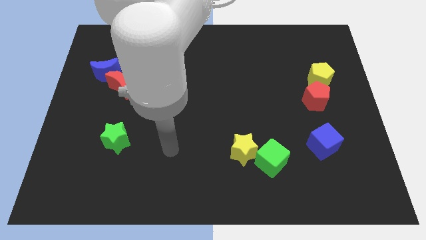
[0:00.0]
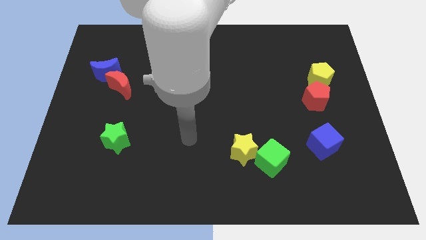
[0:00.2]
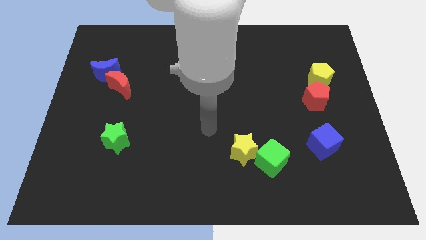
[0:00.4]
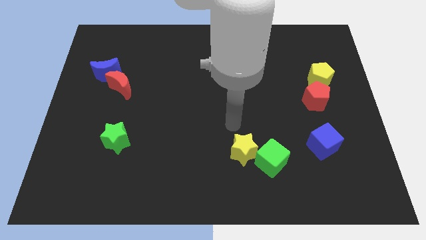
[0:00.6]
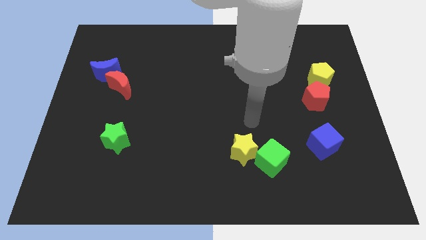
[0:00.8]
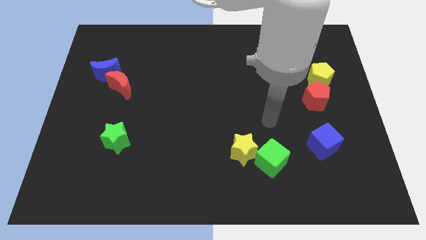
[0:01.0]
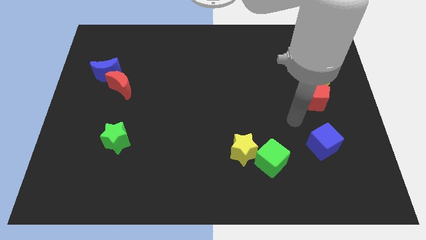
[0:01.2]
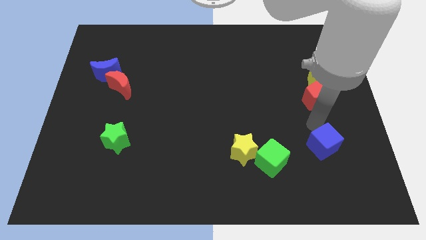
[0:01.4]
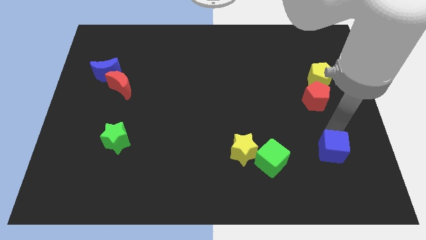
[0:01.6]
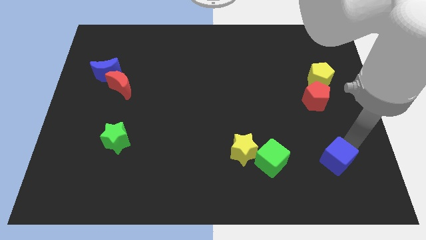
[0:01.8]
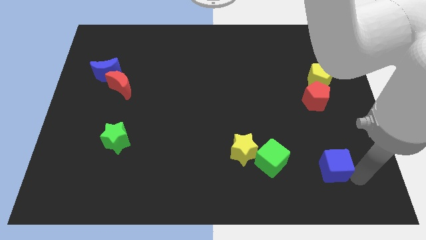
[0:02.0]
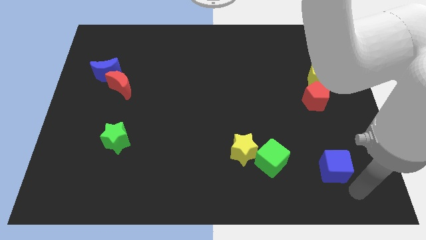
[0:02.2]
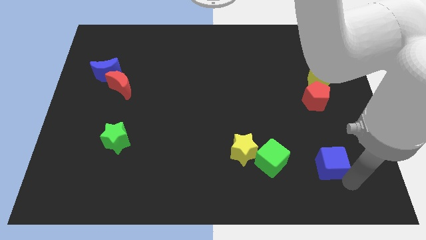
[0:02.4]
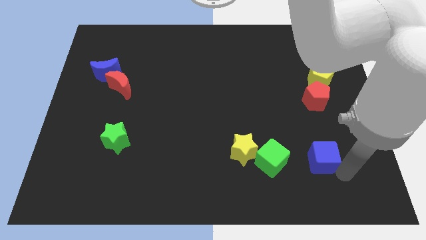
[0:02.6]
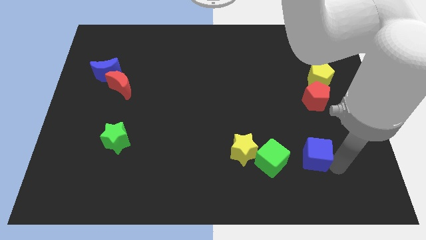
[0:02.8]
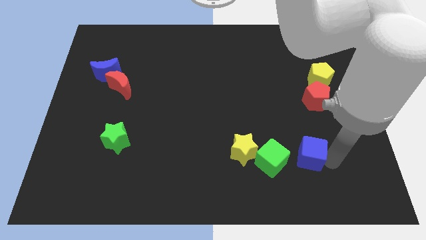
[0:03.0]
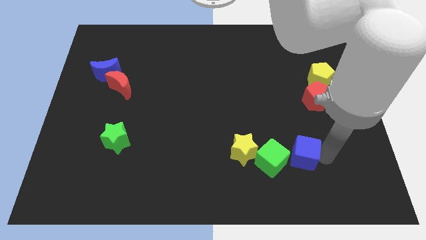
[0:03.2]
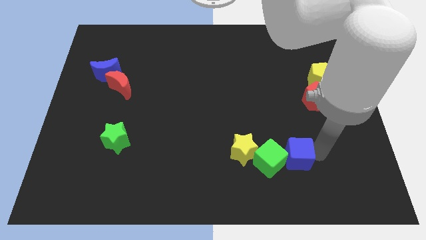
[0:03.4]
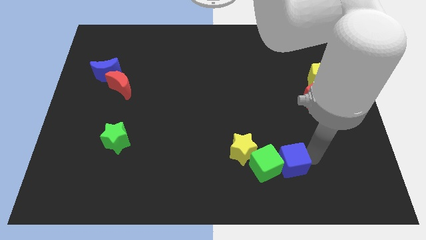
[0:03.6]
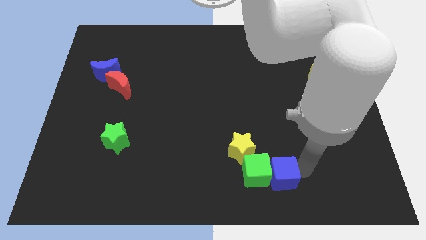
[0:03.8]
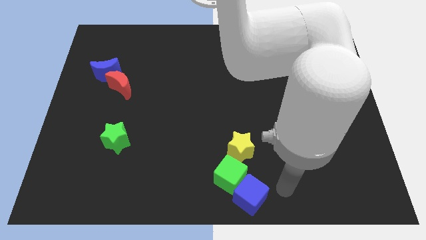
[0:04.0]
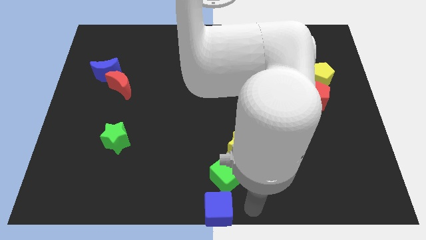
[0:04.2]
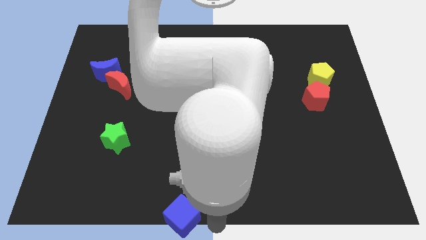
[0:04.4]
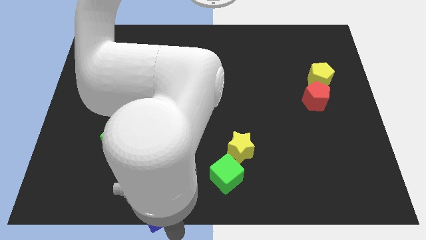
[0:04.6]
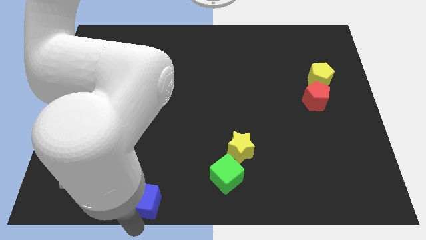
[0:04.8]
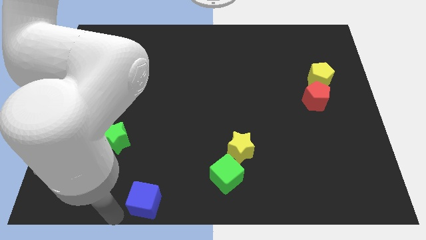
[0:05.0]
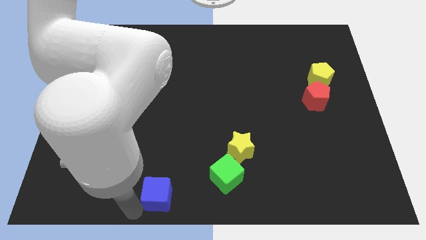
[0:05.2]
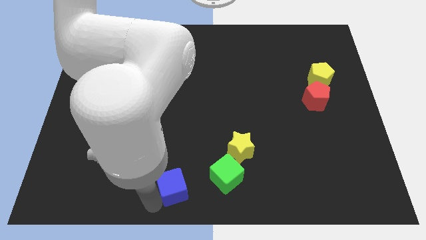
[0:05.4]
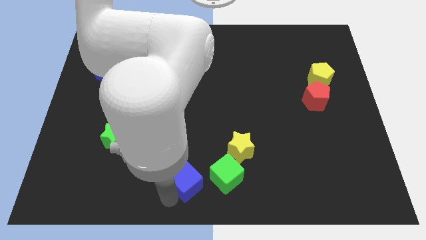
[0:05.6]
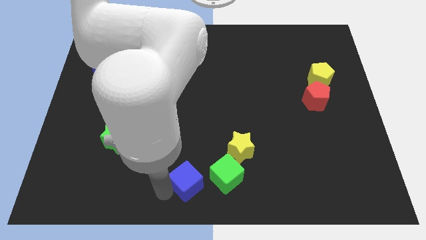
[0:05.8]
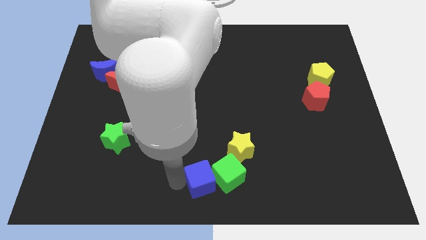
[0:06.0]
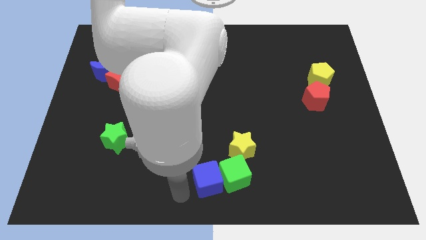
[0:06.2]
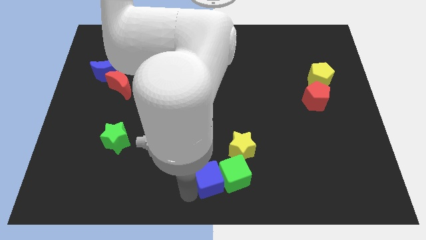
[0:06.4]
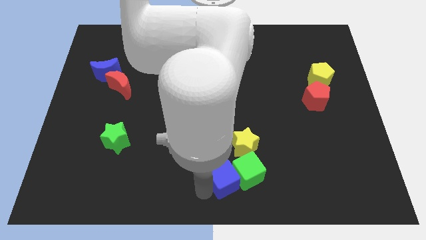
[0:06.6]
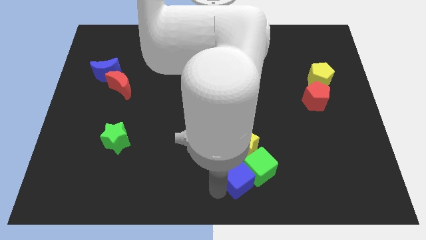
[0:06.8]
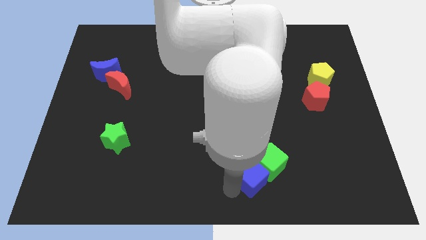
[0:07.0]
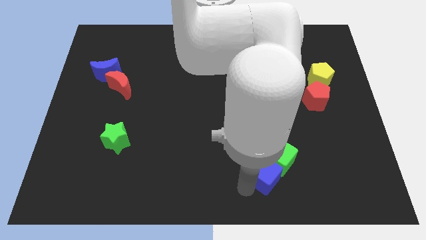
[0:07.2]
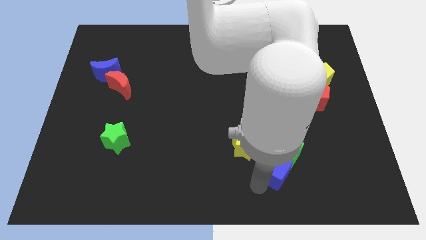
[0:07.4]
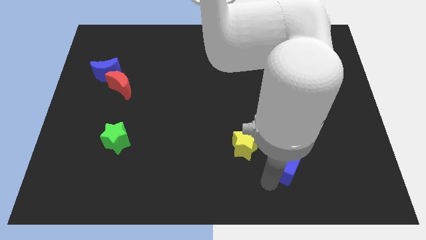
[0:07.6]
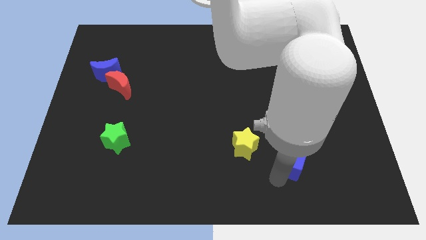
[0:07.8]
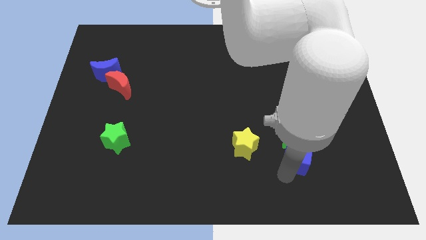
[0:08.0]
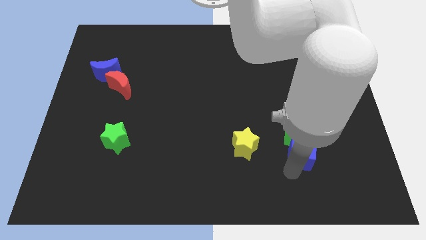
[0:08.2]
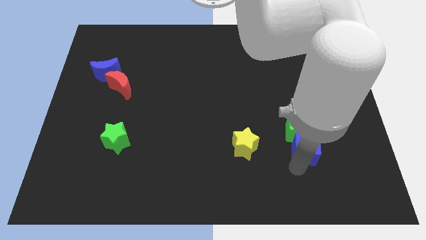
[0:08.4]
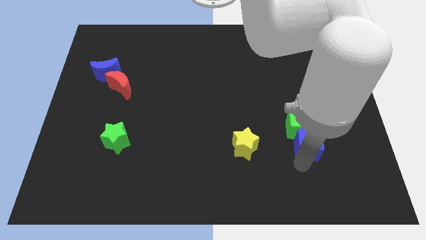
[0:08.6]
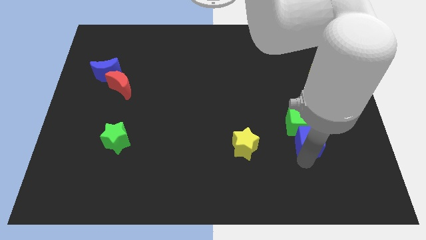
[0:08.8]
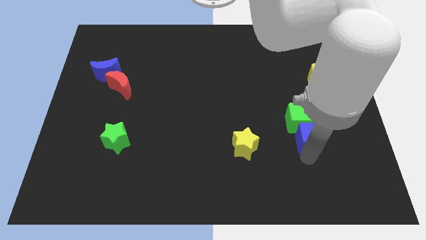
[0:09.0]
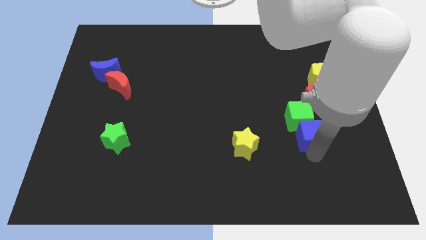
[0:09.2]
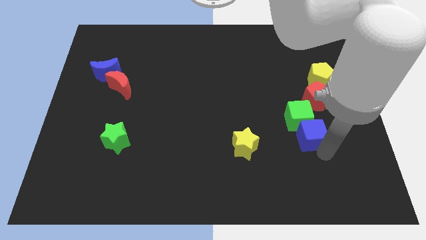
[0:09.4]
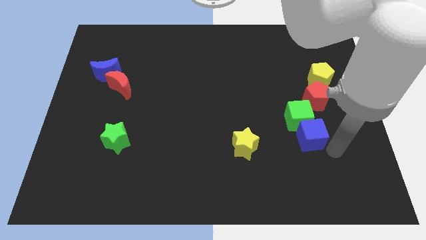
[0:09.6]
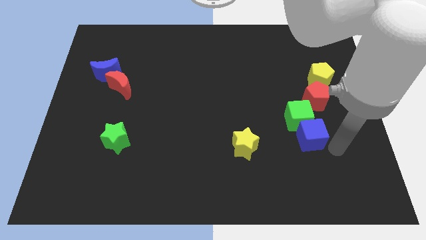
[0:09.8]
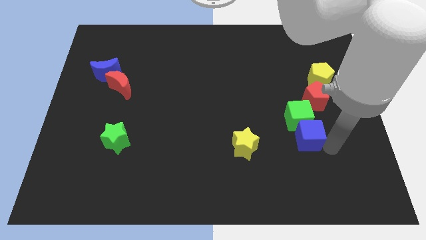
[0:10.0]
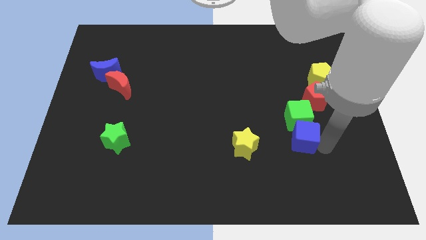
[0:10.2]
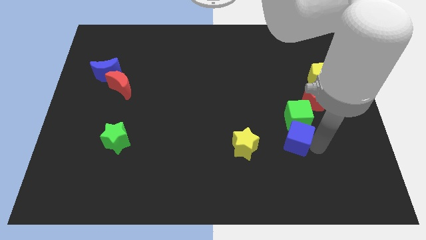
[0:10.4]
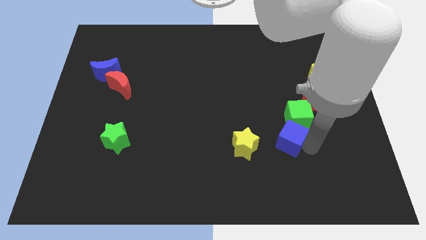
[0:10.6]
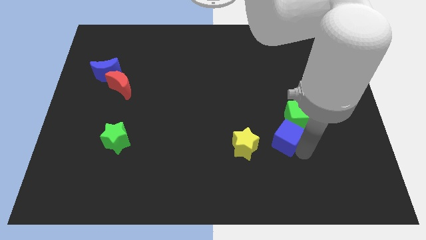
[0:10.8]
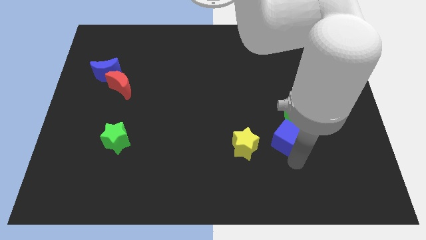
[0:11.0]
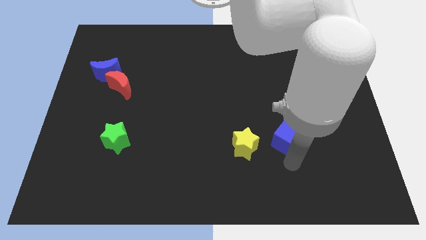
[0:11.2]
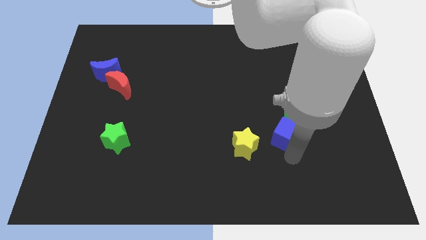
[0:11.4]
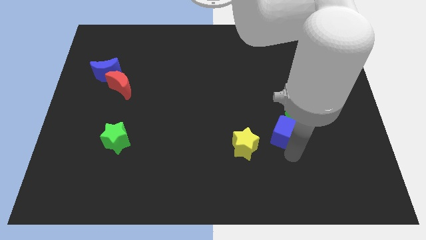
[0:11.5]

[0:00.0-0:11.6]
move the blue cube a little bit up and then left

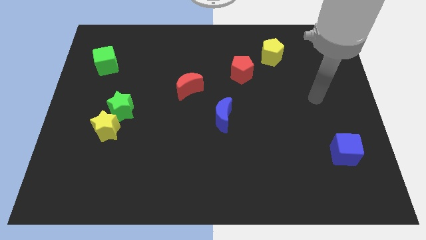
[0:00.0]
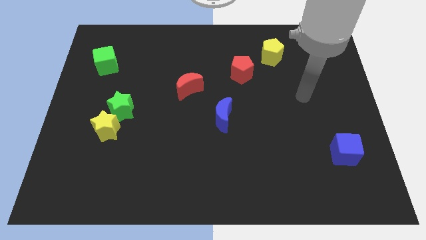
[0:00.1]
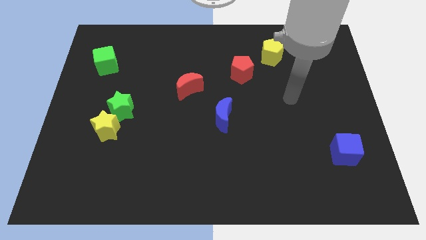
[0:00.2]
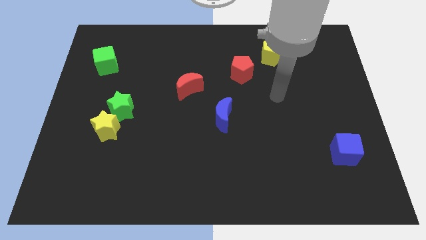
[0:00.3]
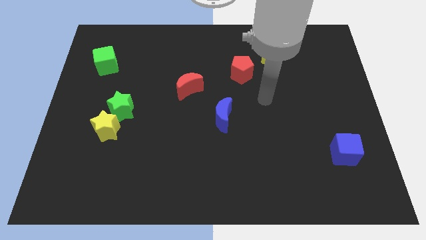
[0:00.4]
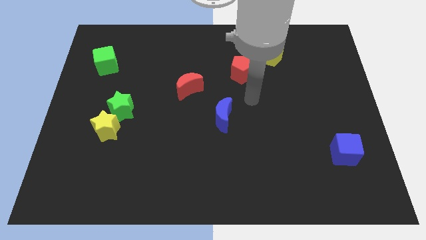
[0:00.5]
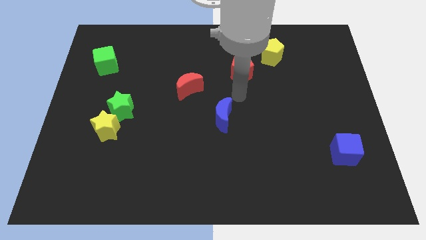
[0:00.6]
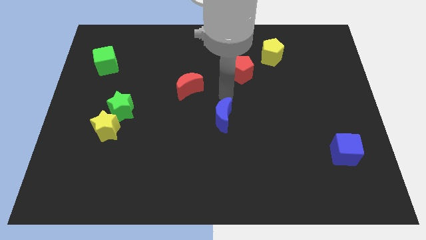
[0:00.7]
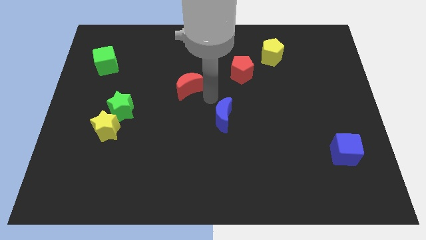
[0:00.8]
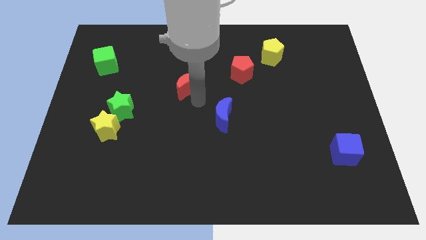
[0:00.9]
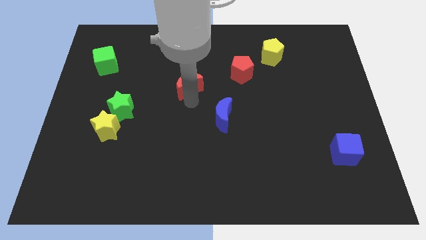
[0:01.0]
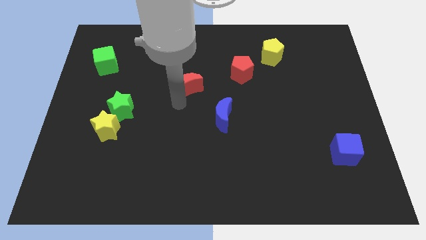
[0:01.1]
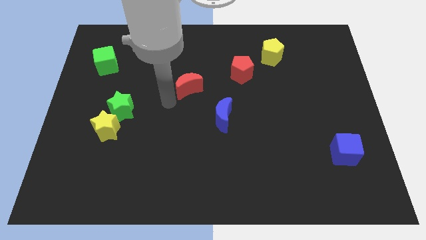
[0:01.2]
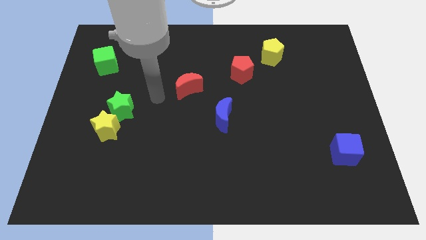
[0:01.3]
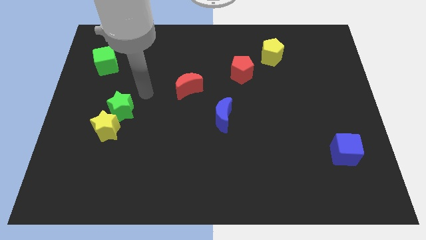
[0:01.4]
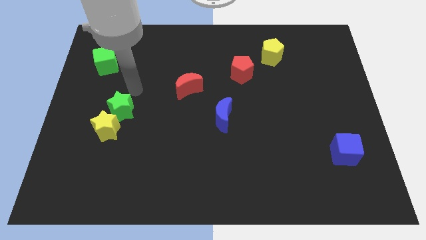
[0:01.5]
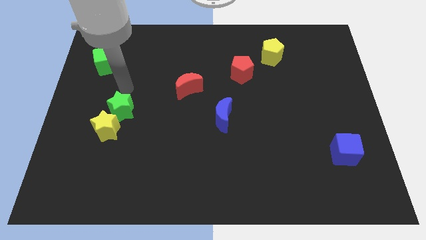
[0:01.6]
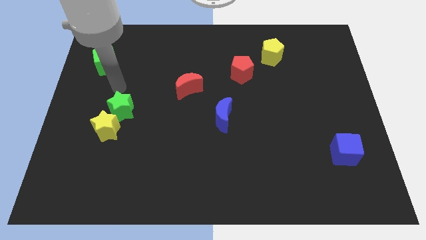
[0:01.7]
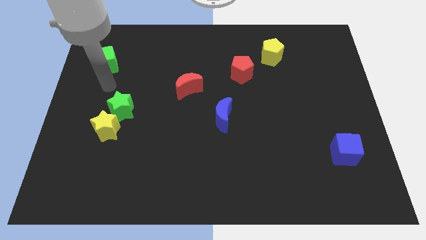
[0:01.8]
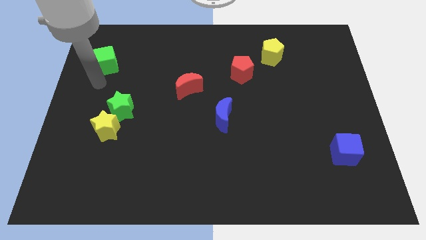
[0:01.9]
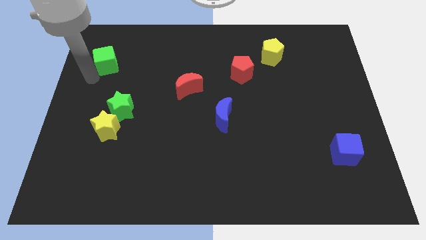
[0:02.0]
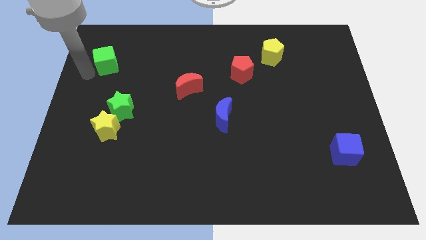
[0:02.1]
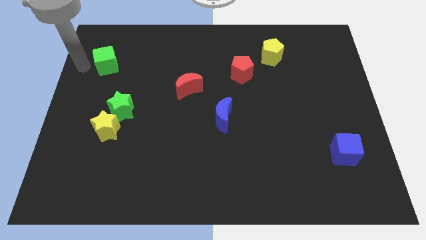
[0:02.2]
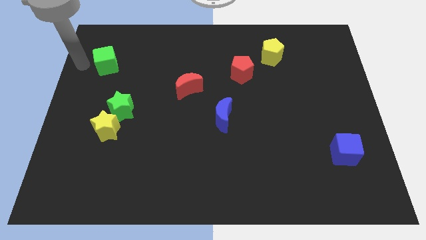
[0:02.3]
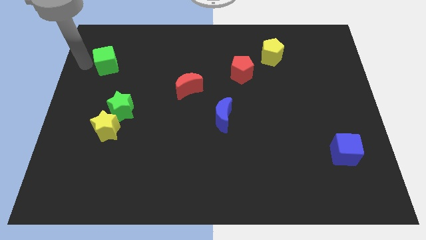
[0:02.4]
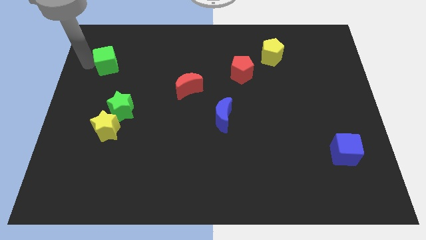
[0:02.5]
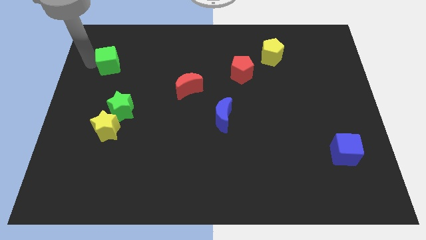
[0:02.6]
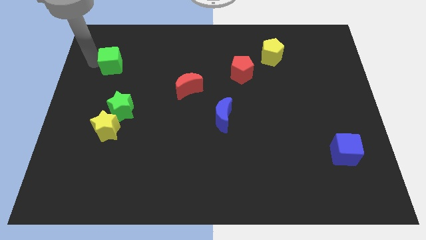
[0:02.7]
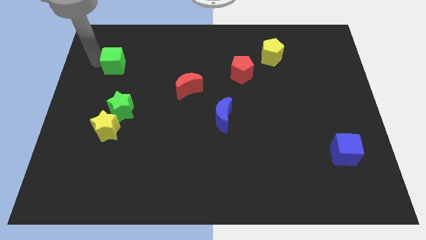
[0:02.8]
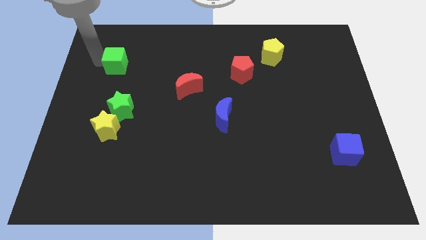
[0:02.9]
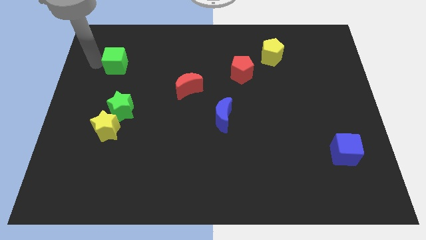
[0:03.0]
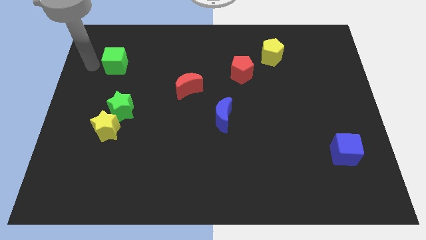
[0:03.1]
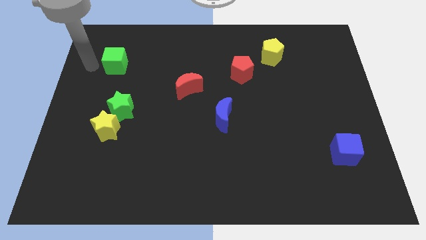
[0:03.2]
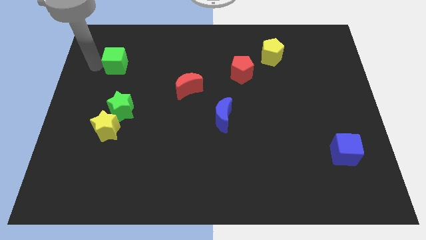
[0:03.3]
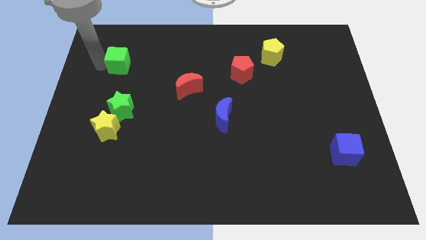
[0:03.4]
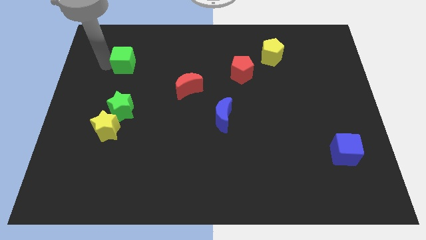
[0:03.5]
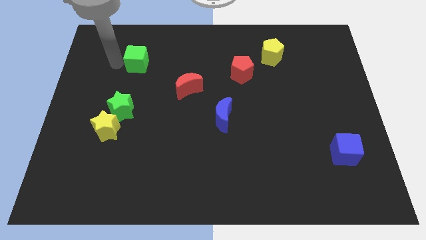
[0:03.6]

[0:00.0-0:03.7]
slightly push the green cube right
